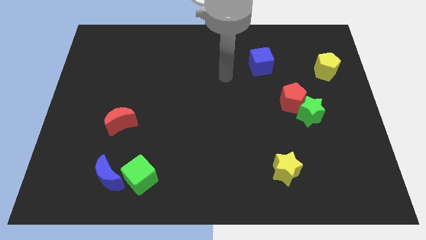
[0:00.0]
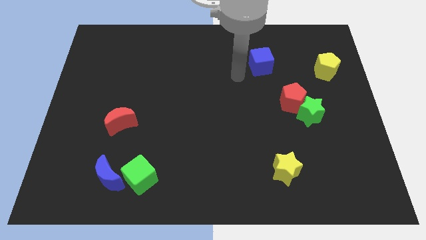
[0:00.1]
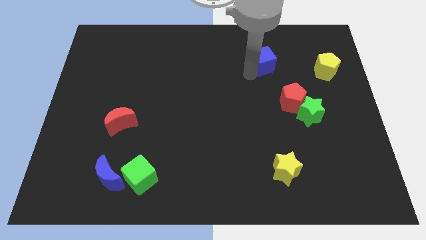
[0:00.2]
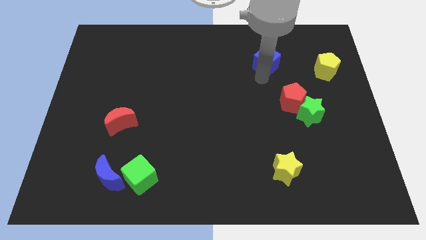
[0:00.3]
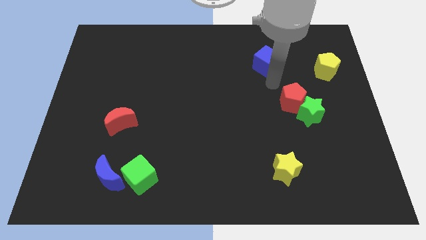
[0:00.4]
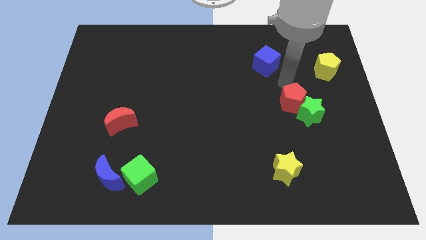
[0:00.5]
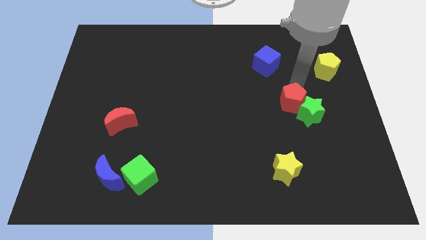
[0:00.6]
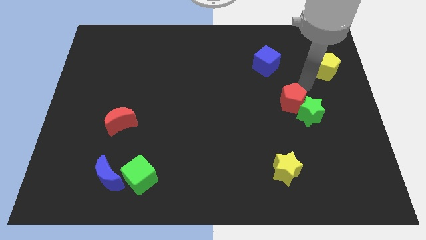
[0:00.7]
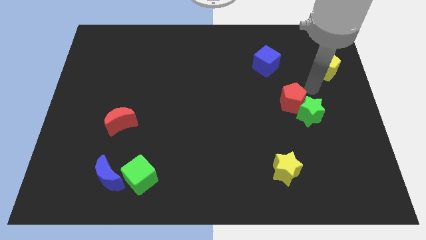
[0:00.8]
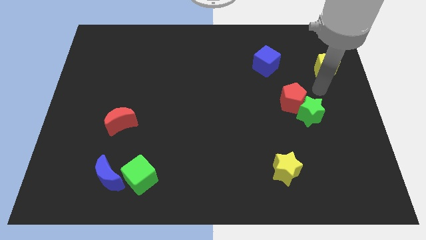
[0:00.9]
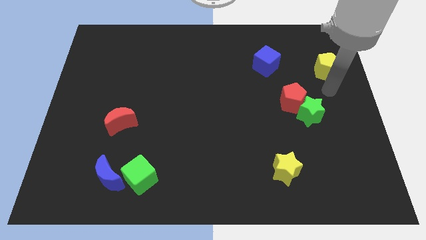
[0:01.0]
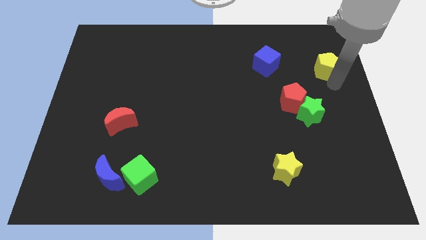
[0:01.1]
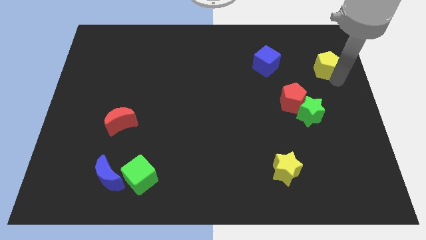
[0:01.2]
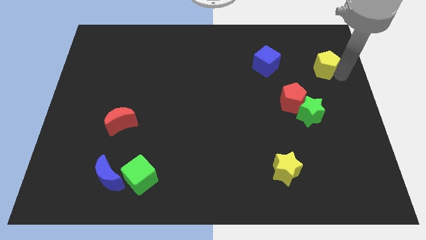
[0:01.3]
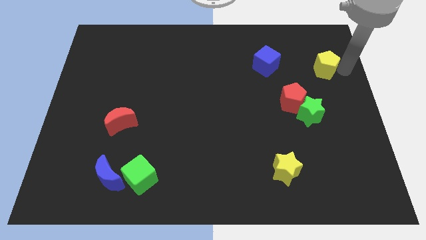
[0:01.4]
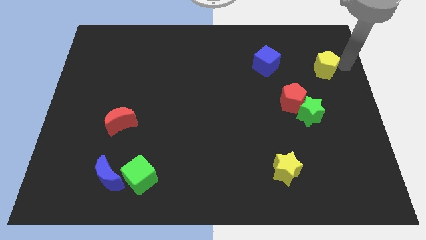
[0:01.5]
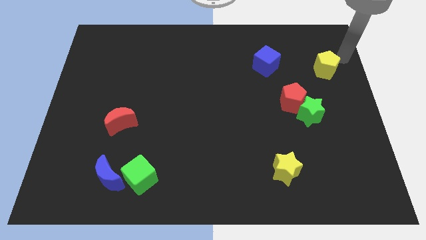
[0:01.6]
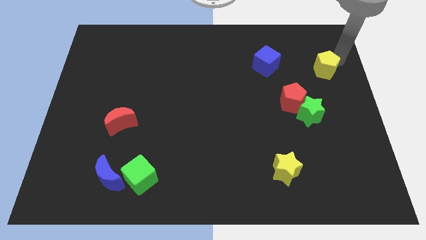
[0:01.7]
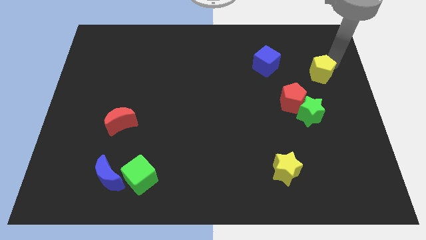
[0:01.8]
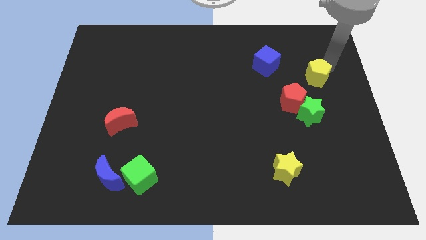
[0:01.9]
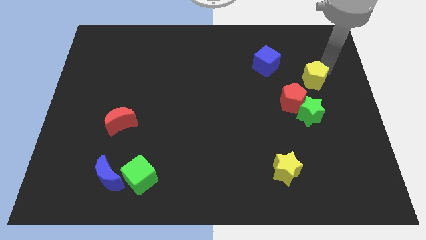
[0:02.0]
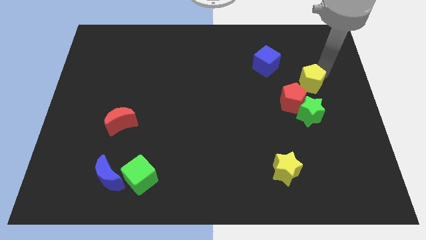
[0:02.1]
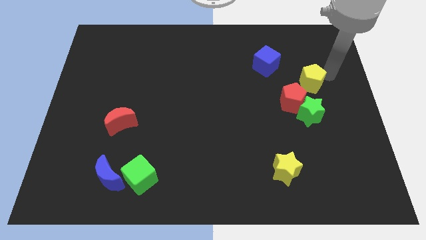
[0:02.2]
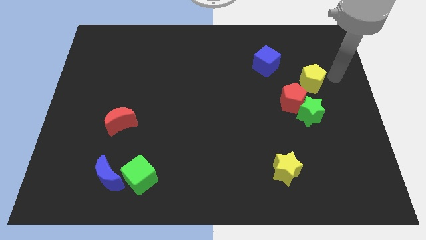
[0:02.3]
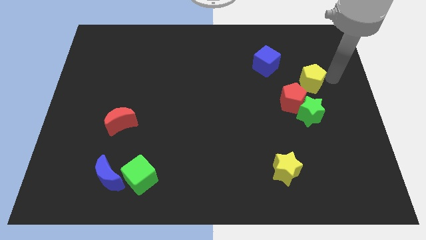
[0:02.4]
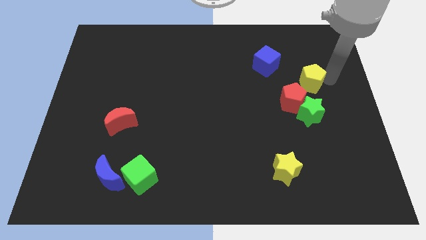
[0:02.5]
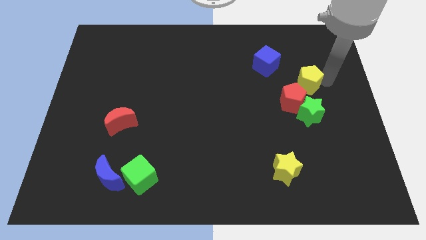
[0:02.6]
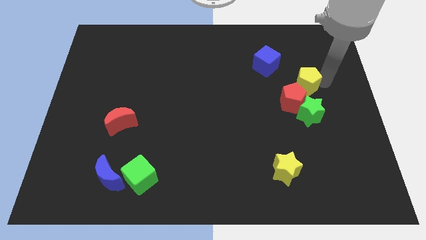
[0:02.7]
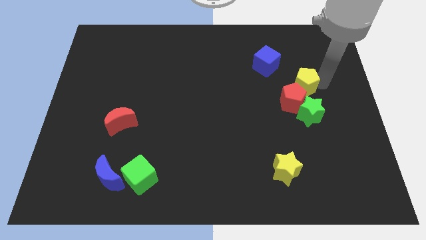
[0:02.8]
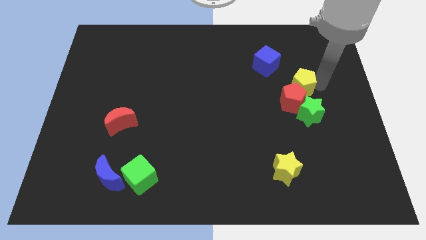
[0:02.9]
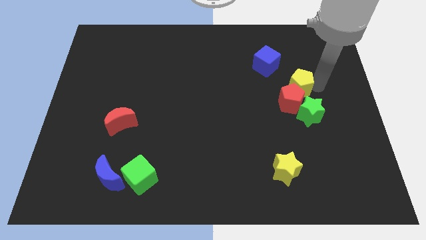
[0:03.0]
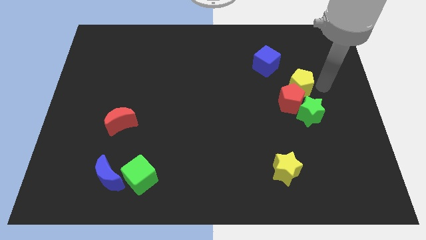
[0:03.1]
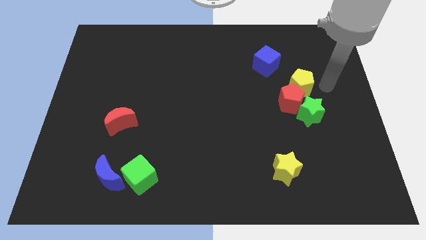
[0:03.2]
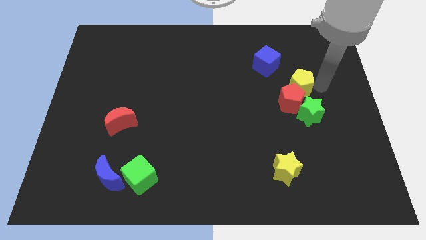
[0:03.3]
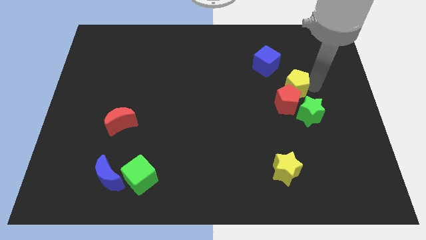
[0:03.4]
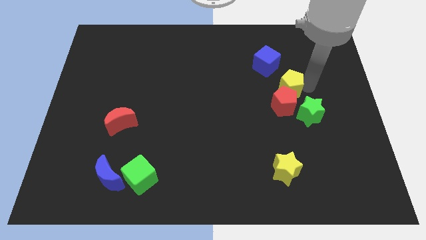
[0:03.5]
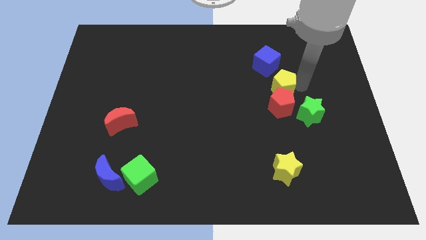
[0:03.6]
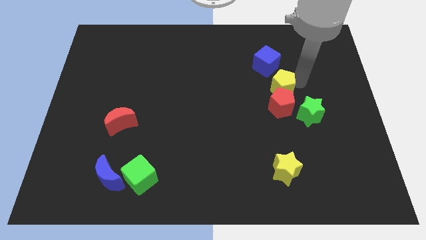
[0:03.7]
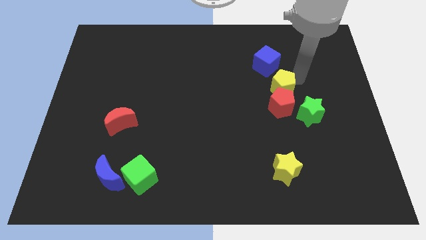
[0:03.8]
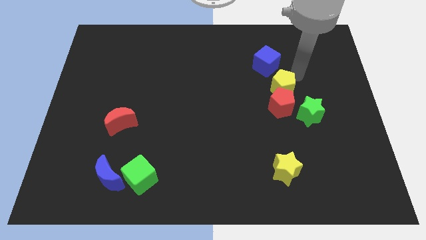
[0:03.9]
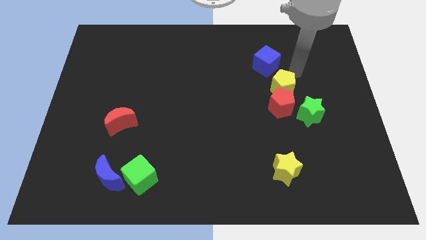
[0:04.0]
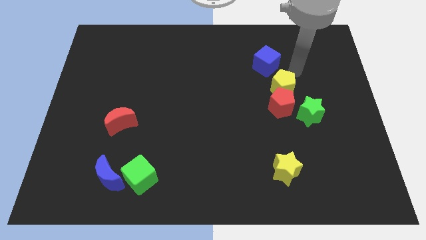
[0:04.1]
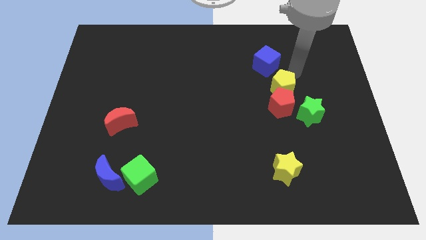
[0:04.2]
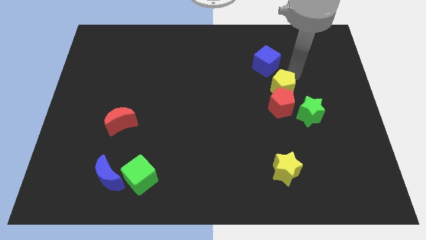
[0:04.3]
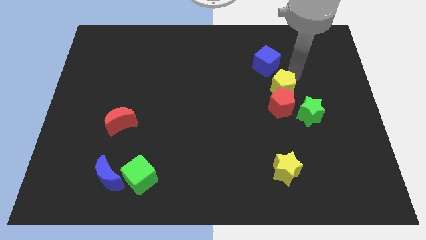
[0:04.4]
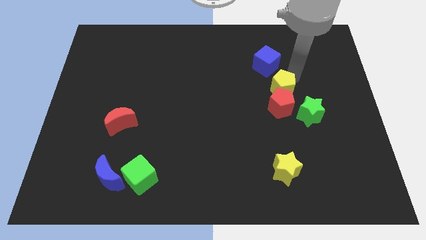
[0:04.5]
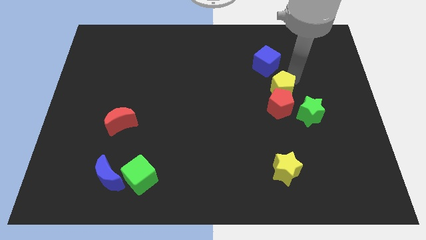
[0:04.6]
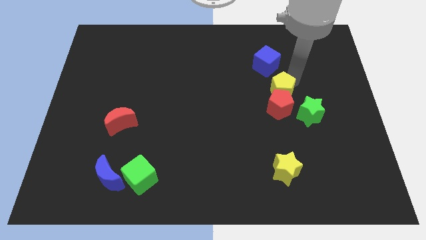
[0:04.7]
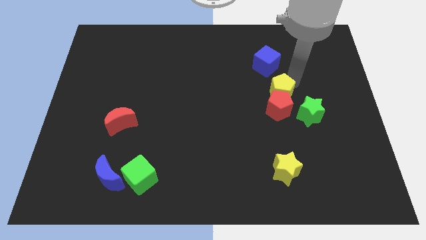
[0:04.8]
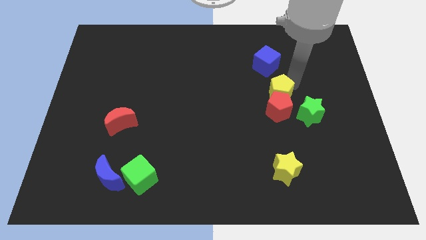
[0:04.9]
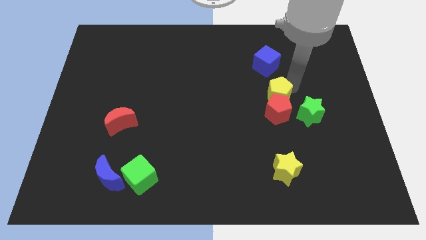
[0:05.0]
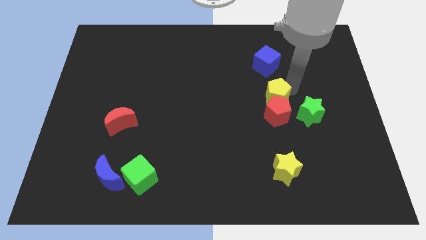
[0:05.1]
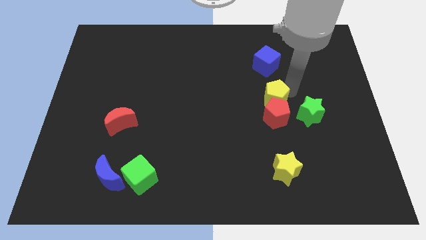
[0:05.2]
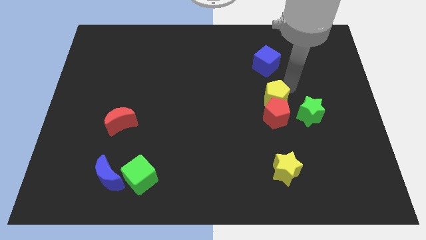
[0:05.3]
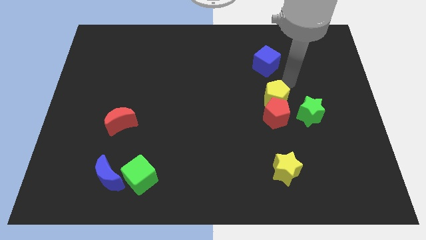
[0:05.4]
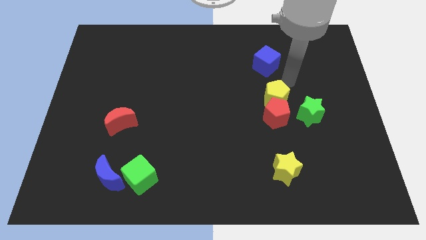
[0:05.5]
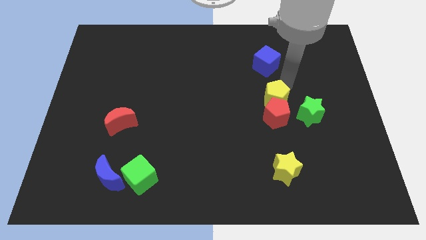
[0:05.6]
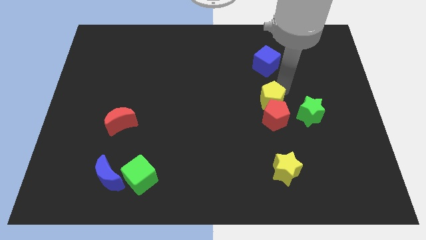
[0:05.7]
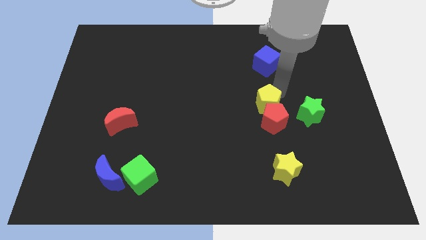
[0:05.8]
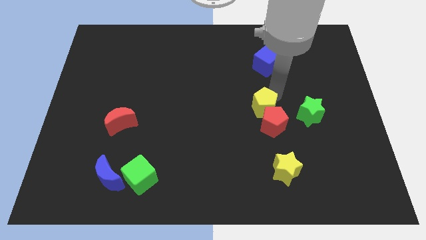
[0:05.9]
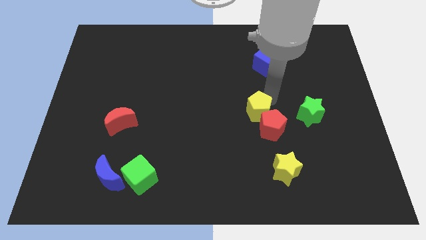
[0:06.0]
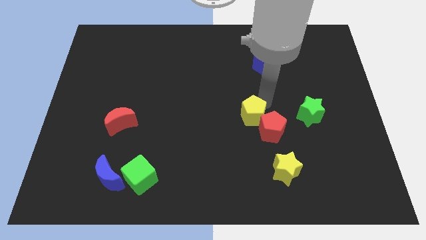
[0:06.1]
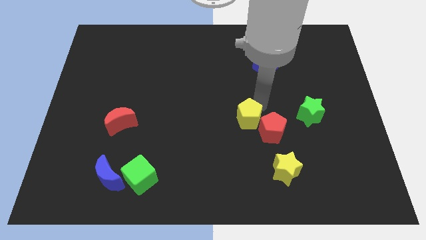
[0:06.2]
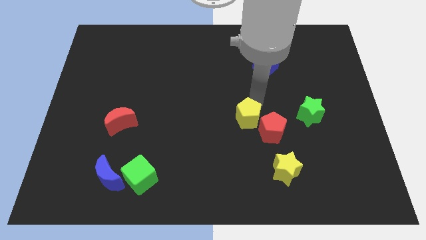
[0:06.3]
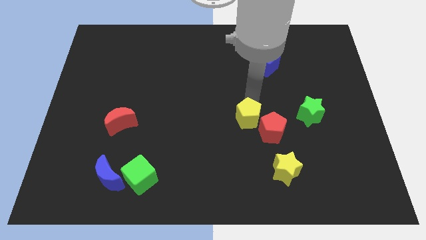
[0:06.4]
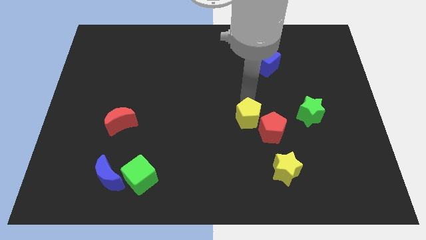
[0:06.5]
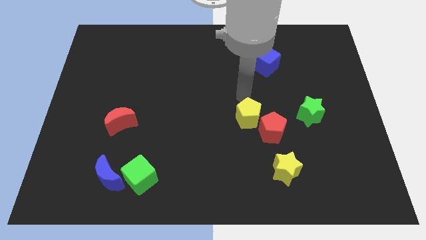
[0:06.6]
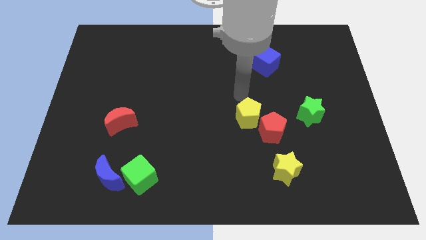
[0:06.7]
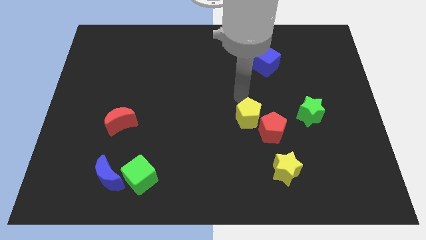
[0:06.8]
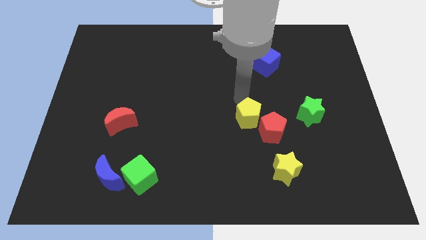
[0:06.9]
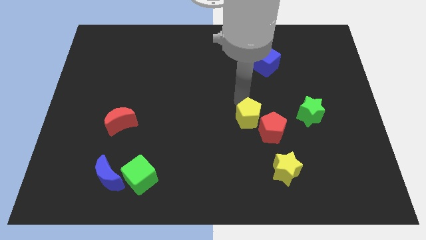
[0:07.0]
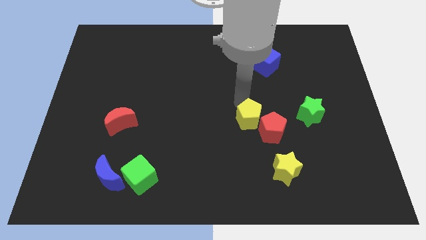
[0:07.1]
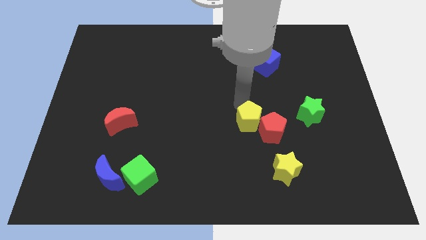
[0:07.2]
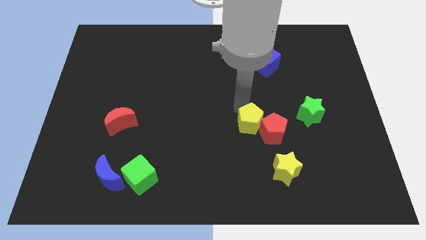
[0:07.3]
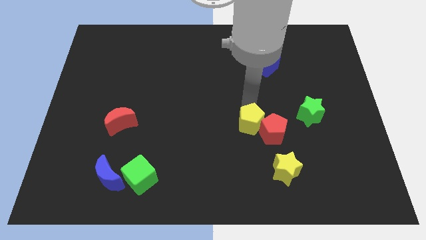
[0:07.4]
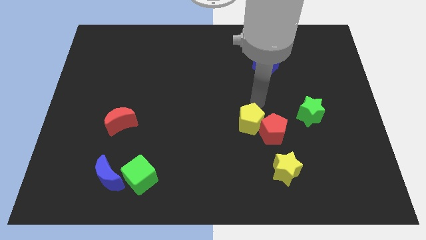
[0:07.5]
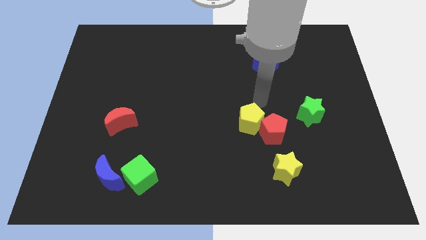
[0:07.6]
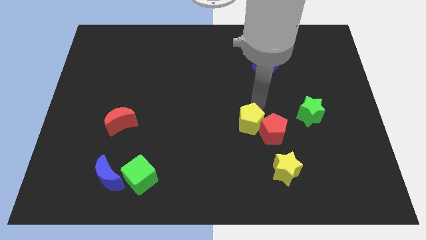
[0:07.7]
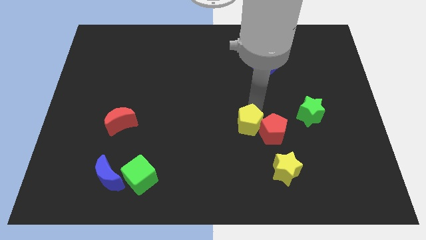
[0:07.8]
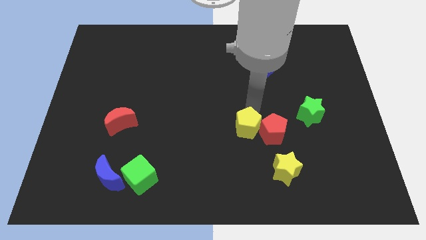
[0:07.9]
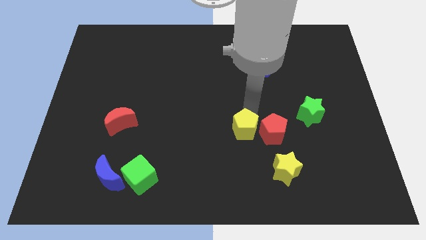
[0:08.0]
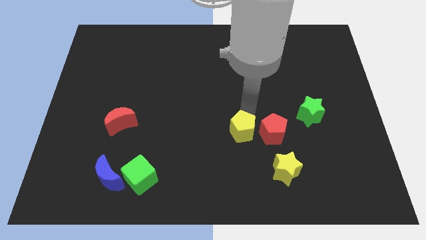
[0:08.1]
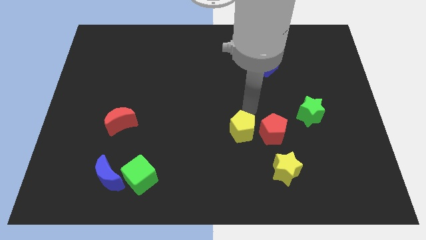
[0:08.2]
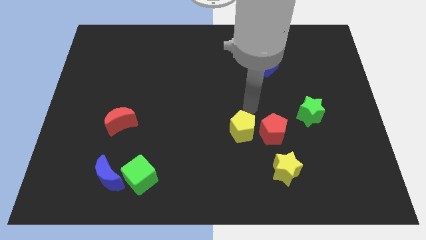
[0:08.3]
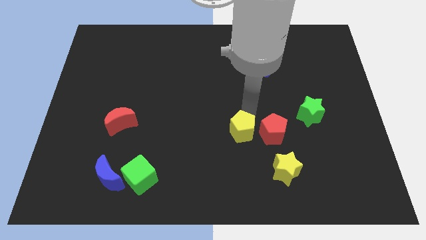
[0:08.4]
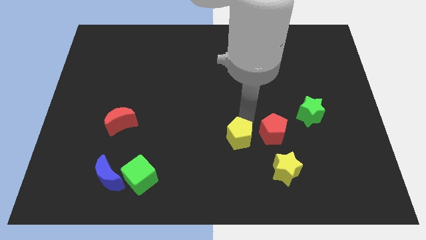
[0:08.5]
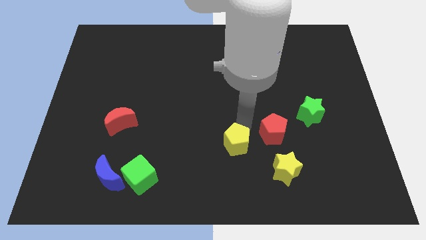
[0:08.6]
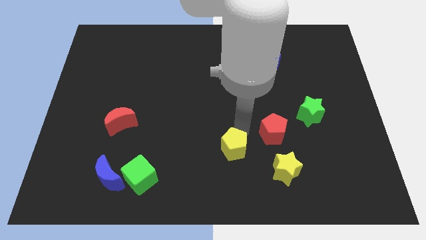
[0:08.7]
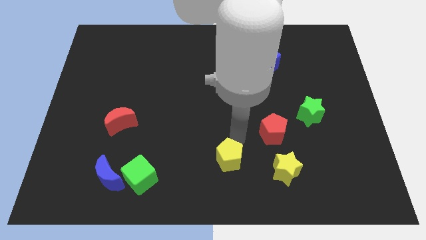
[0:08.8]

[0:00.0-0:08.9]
push the yellow pentagon to the bottom side
